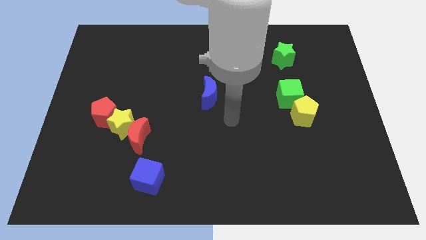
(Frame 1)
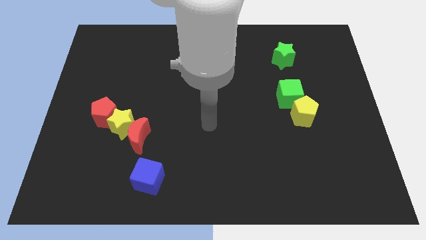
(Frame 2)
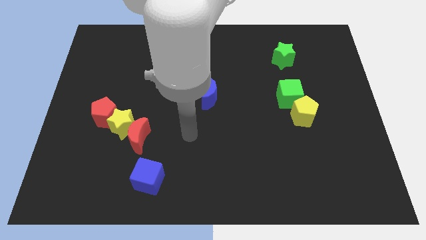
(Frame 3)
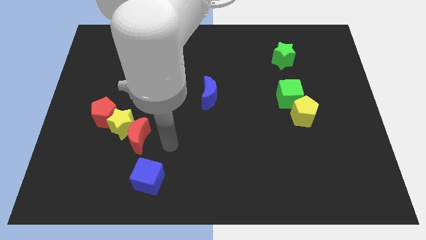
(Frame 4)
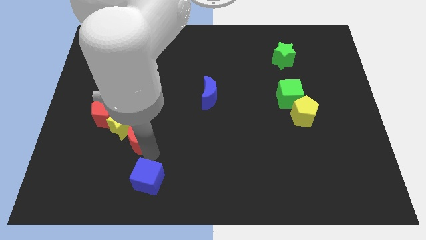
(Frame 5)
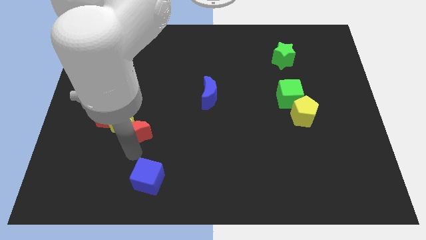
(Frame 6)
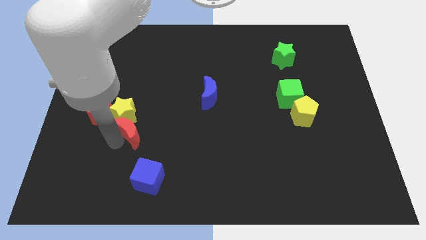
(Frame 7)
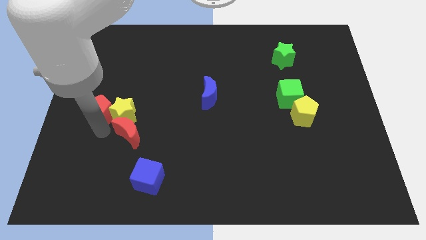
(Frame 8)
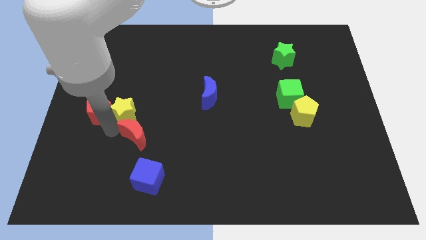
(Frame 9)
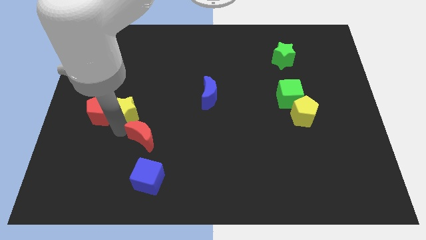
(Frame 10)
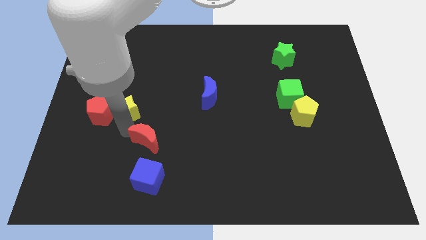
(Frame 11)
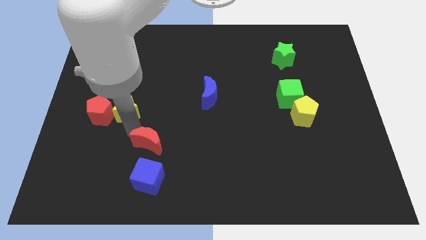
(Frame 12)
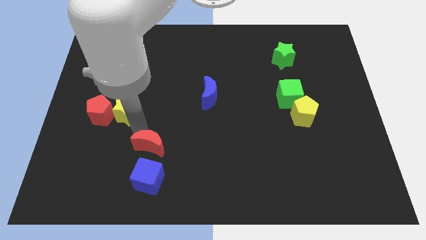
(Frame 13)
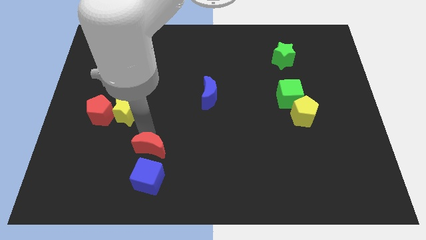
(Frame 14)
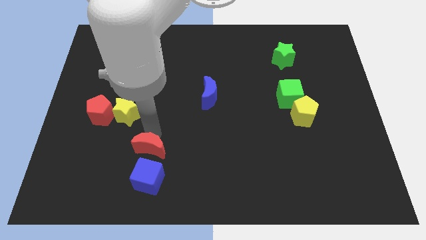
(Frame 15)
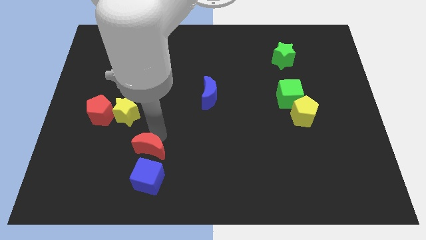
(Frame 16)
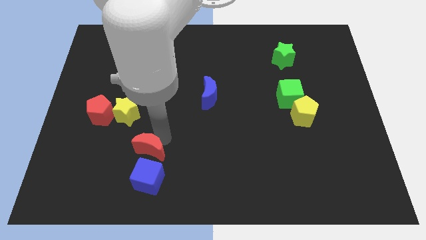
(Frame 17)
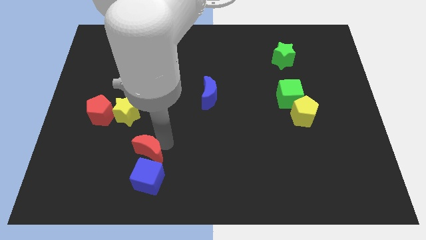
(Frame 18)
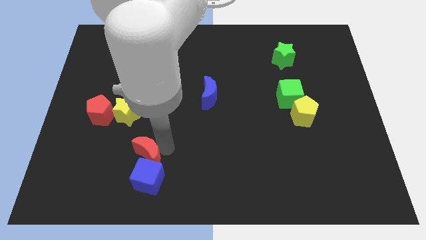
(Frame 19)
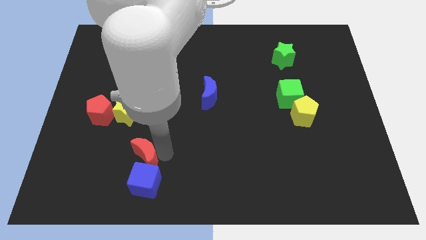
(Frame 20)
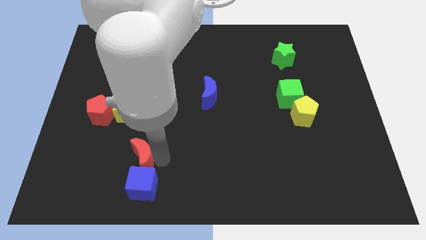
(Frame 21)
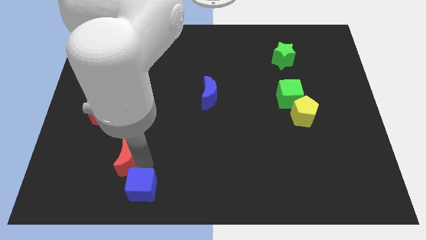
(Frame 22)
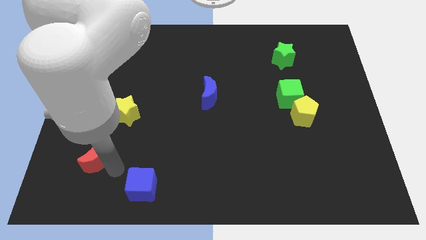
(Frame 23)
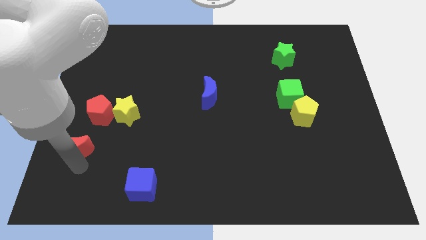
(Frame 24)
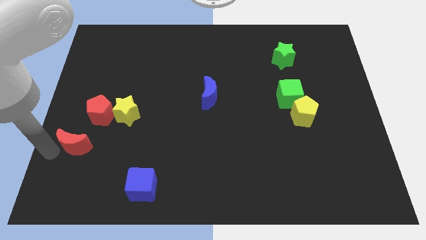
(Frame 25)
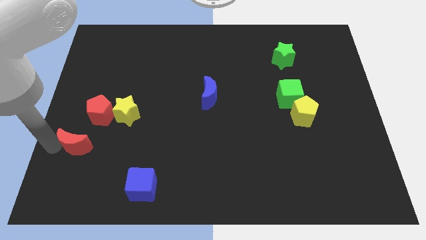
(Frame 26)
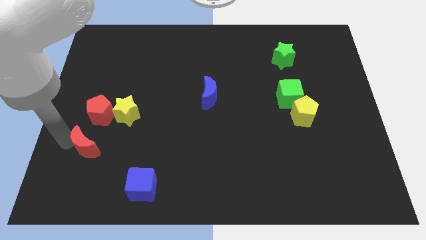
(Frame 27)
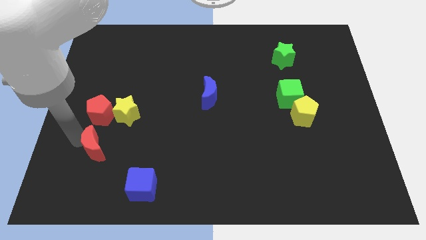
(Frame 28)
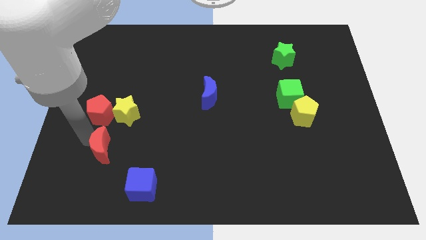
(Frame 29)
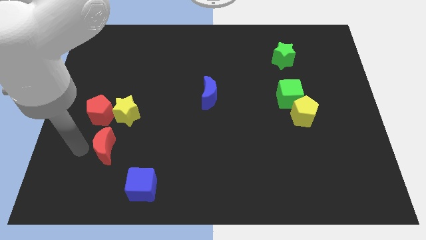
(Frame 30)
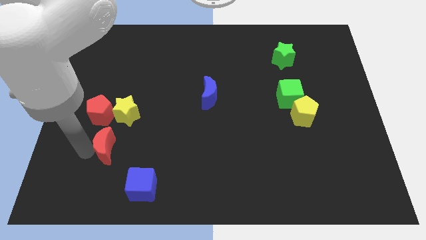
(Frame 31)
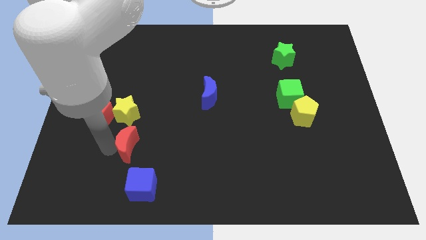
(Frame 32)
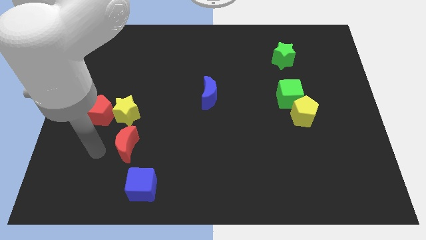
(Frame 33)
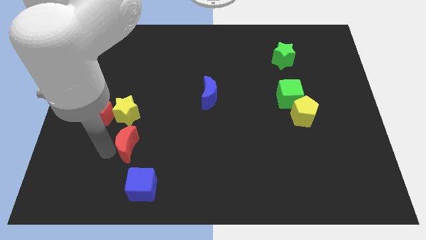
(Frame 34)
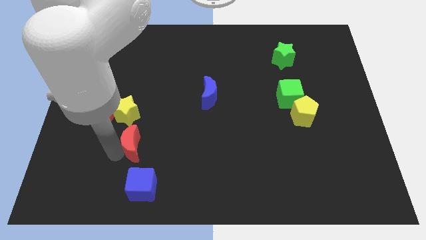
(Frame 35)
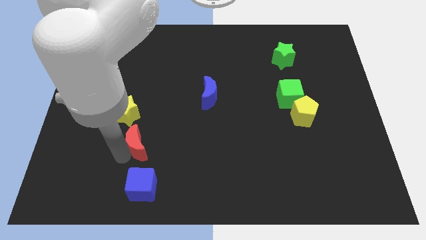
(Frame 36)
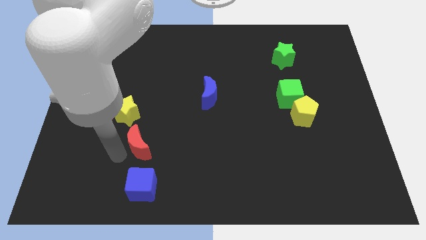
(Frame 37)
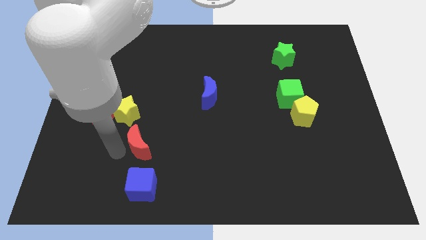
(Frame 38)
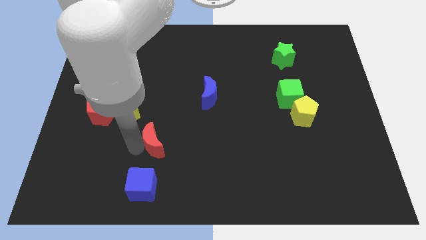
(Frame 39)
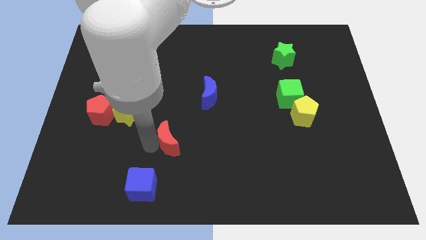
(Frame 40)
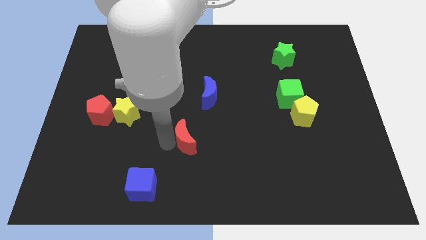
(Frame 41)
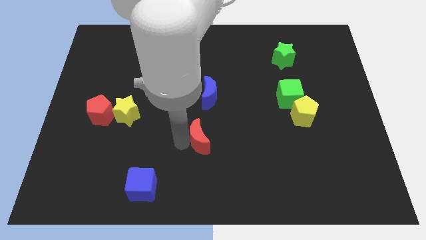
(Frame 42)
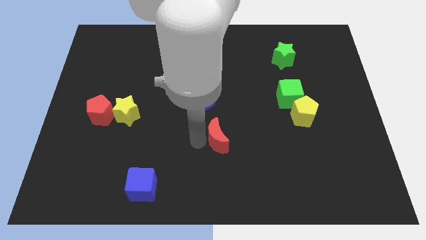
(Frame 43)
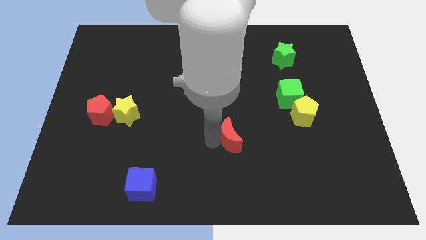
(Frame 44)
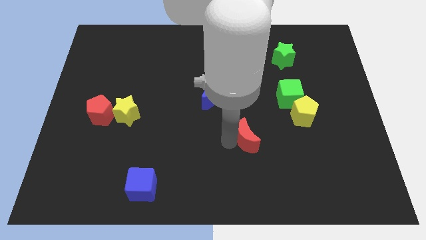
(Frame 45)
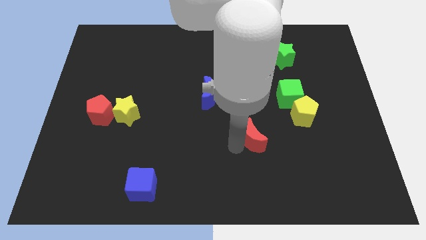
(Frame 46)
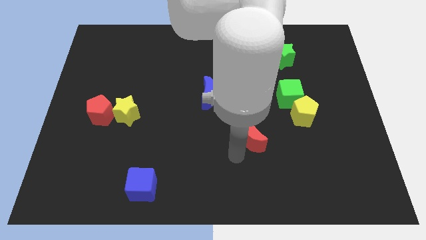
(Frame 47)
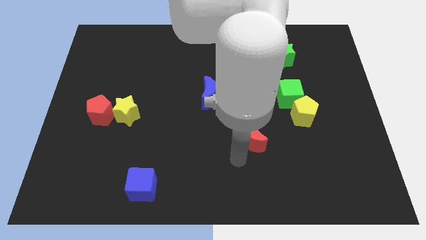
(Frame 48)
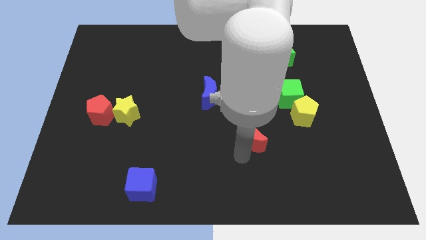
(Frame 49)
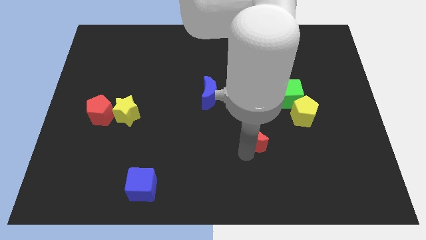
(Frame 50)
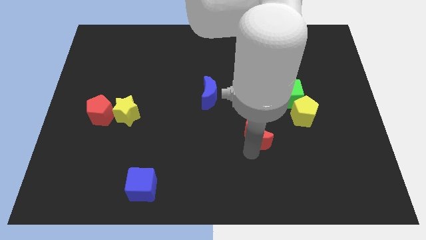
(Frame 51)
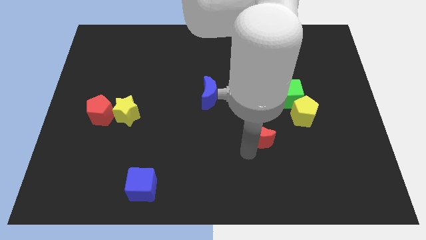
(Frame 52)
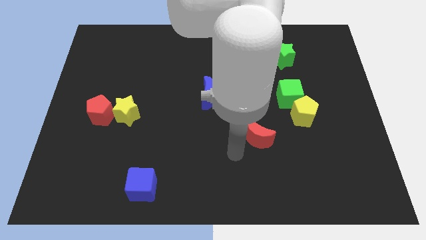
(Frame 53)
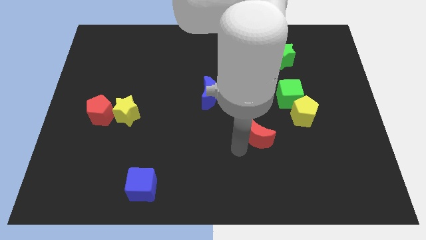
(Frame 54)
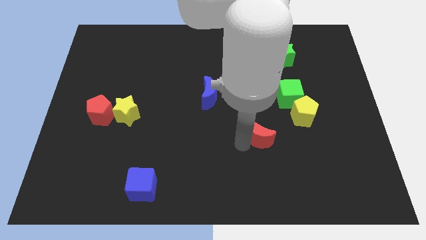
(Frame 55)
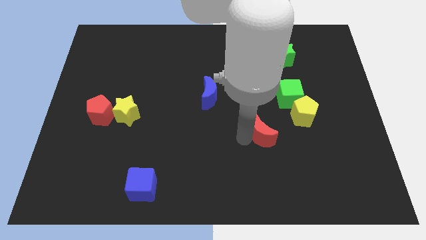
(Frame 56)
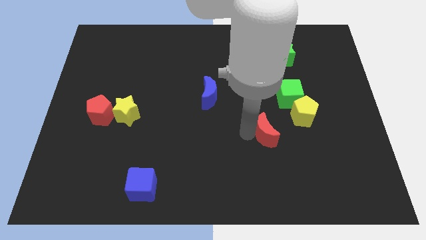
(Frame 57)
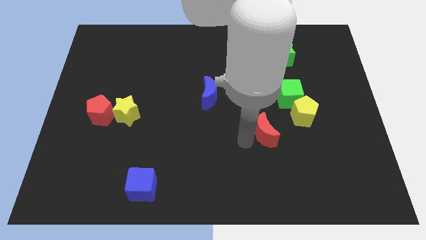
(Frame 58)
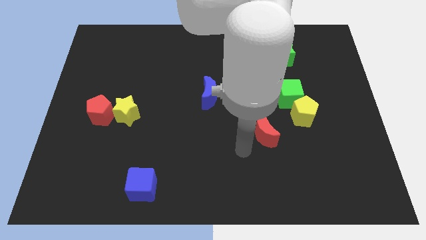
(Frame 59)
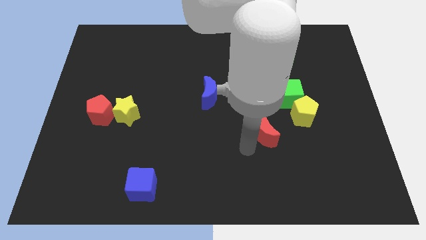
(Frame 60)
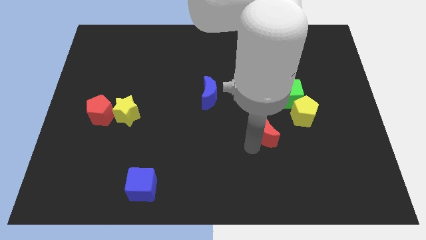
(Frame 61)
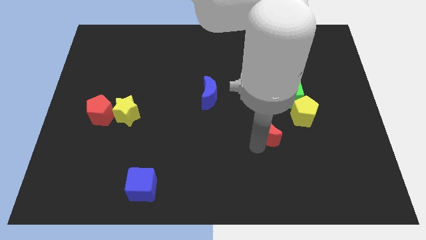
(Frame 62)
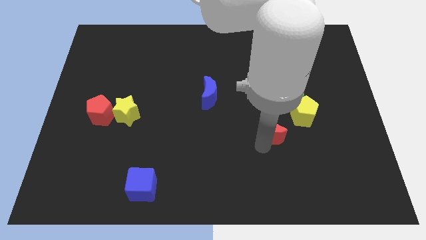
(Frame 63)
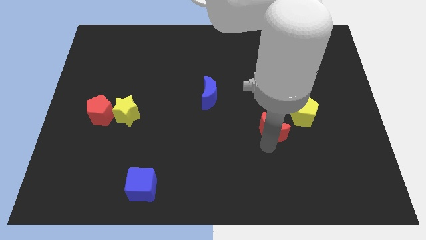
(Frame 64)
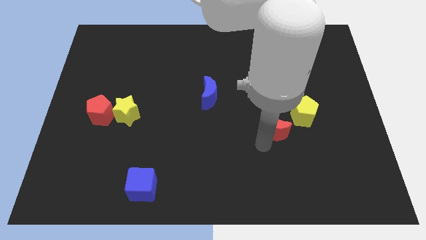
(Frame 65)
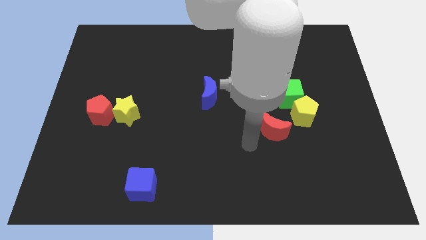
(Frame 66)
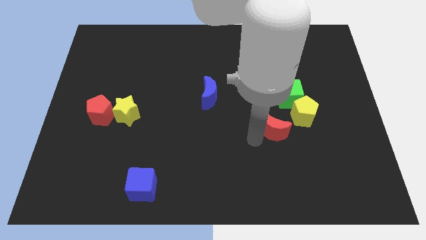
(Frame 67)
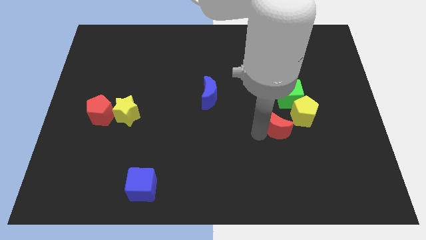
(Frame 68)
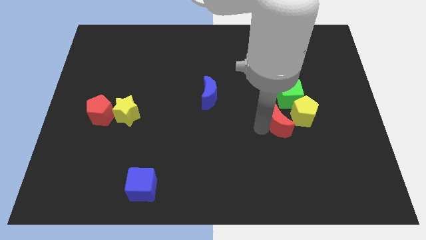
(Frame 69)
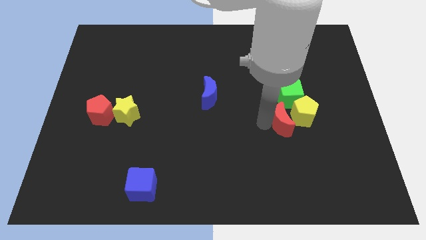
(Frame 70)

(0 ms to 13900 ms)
slide the red moon towards the yellow pentagon
